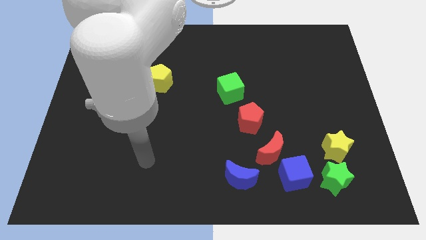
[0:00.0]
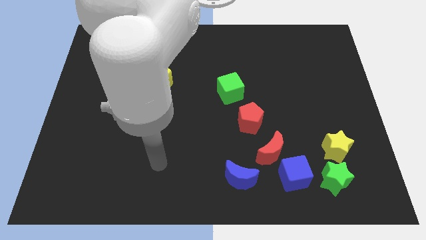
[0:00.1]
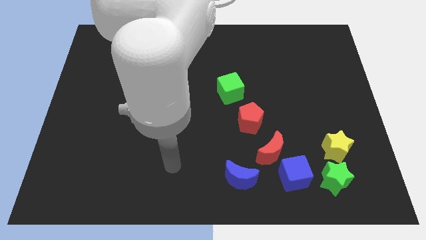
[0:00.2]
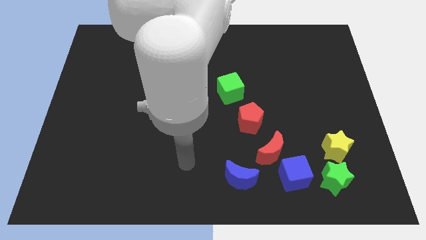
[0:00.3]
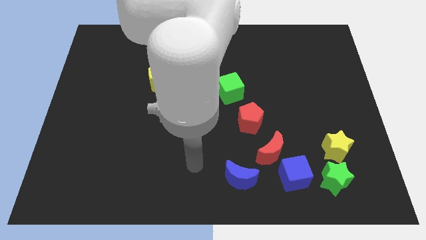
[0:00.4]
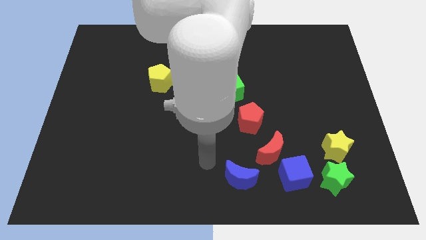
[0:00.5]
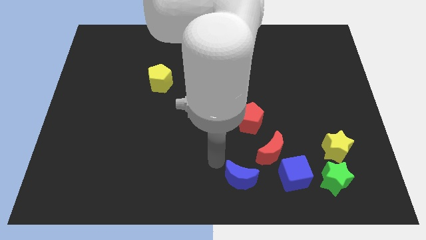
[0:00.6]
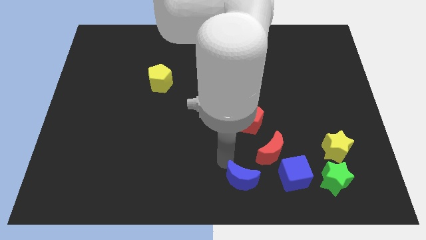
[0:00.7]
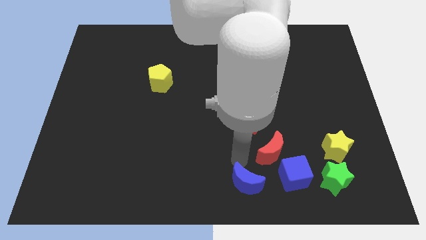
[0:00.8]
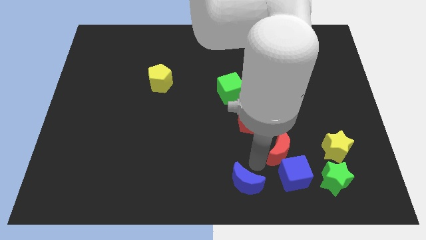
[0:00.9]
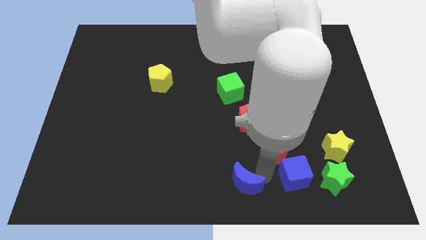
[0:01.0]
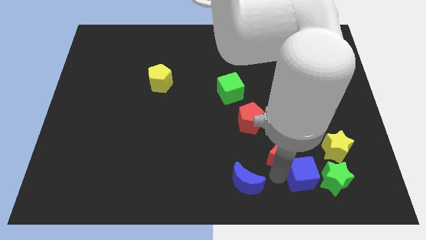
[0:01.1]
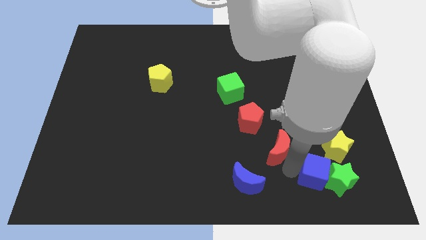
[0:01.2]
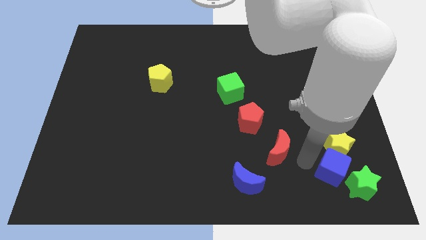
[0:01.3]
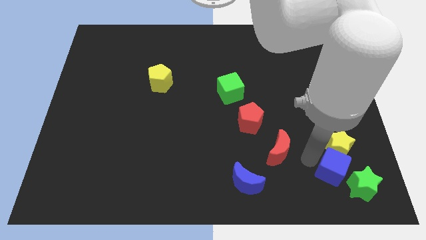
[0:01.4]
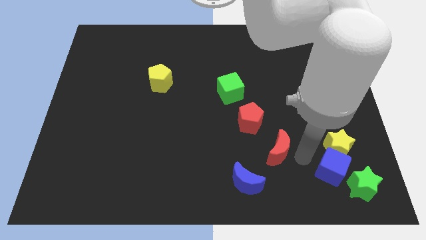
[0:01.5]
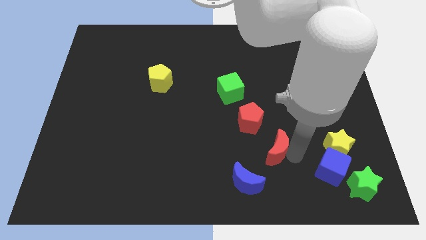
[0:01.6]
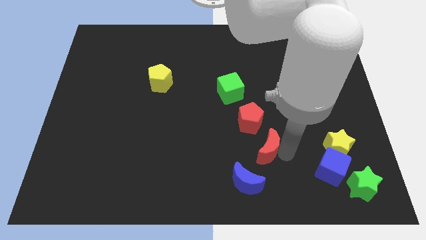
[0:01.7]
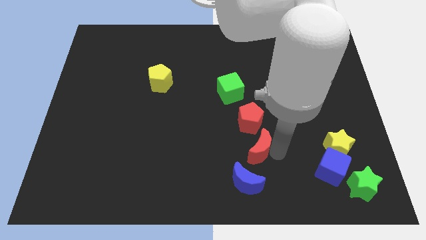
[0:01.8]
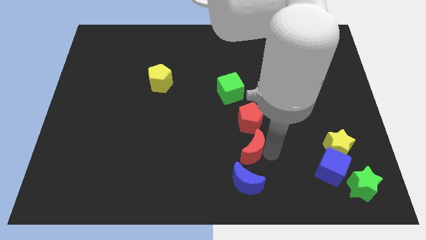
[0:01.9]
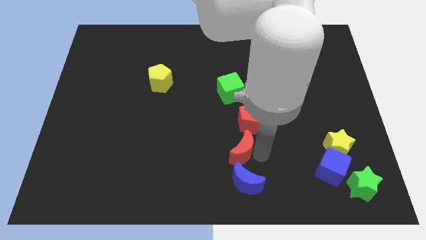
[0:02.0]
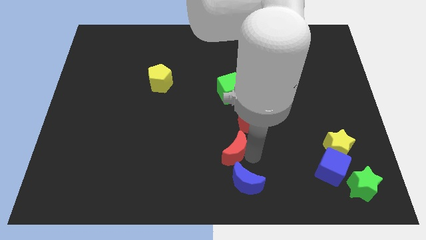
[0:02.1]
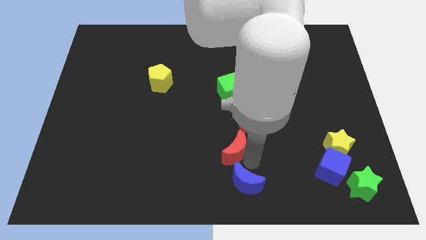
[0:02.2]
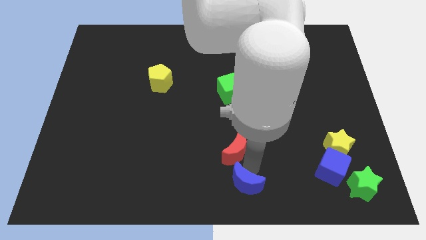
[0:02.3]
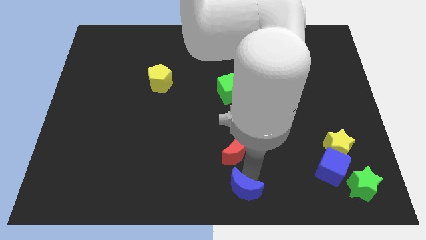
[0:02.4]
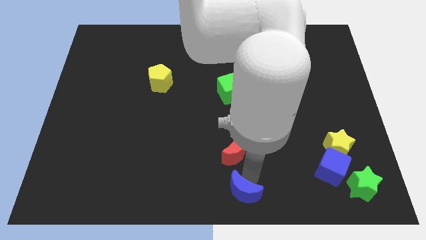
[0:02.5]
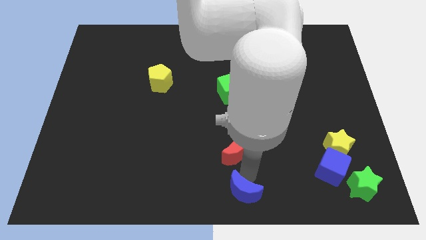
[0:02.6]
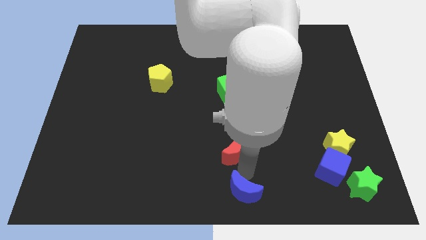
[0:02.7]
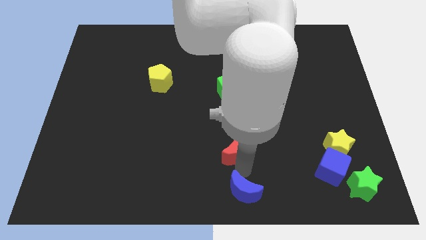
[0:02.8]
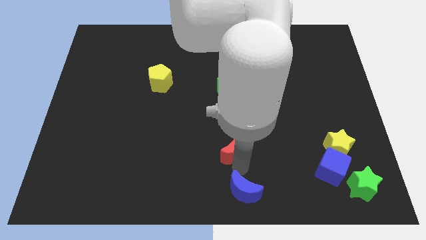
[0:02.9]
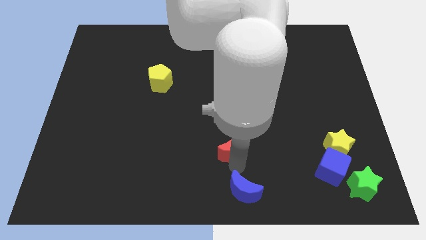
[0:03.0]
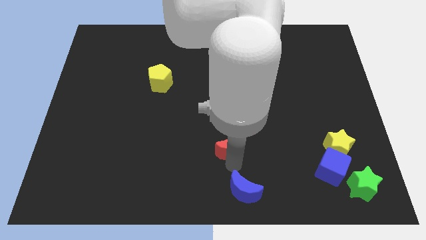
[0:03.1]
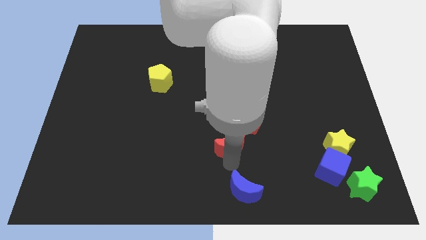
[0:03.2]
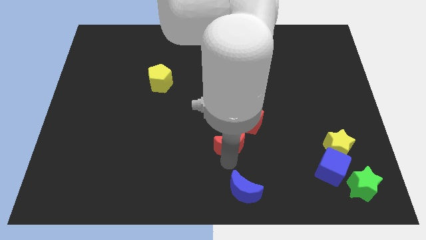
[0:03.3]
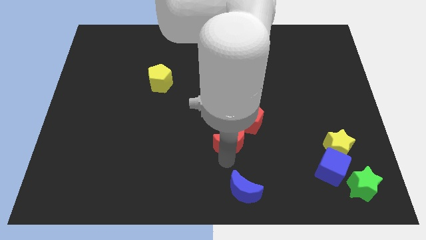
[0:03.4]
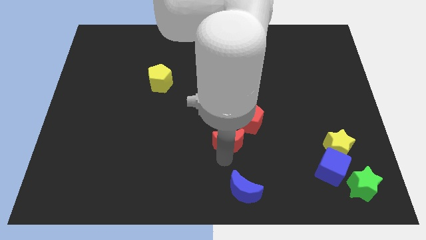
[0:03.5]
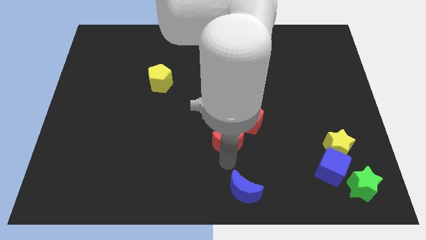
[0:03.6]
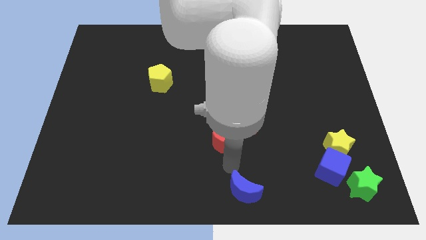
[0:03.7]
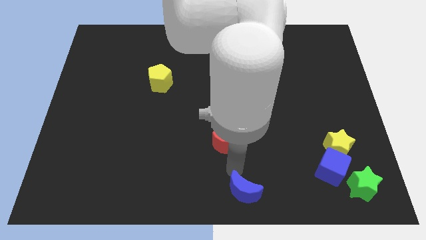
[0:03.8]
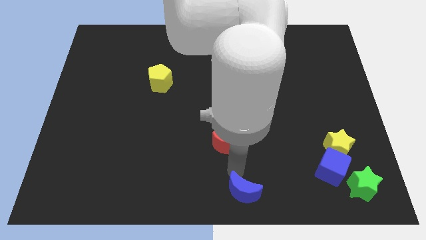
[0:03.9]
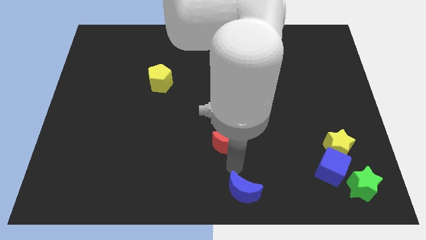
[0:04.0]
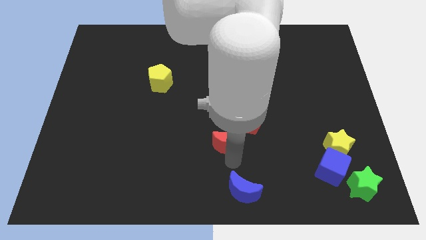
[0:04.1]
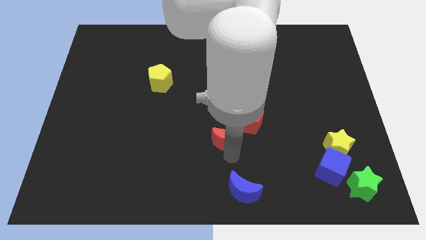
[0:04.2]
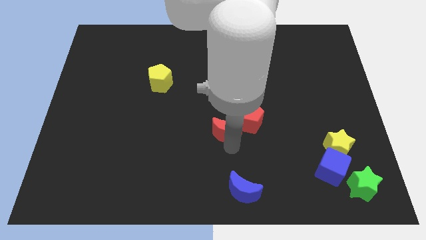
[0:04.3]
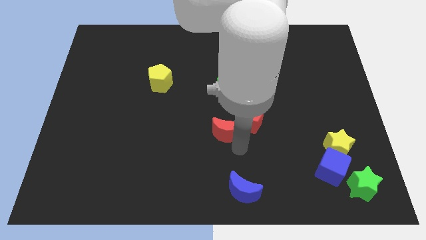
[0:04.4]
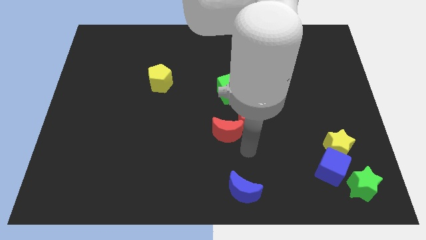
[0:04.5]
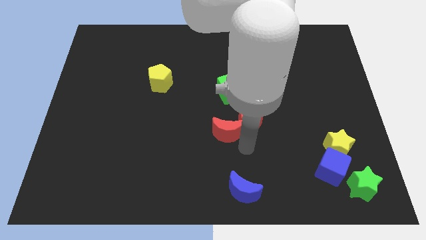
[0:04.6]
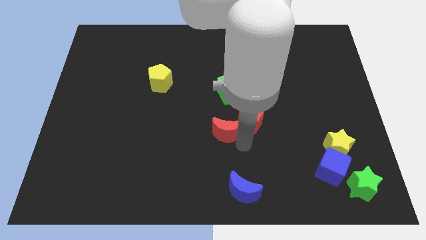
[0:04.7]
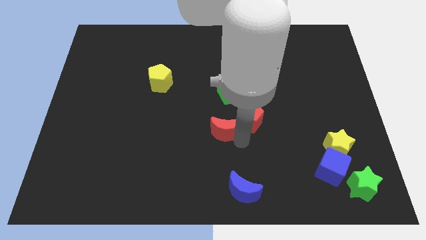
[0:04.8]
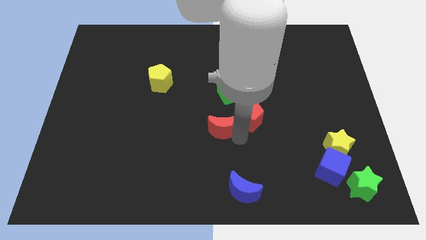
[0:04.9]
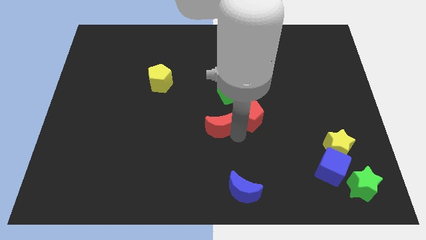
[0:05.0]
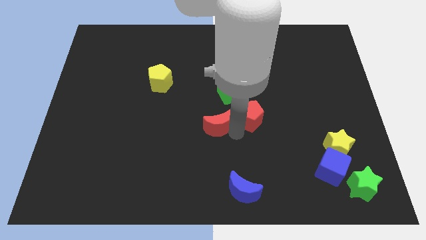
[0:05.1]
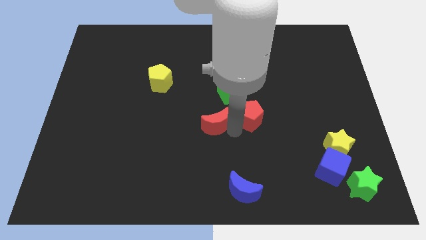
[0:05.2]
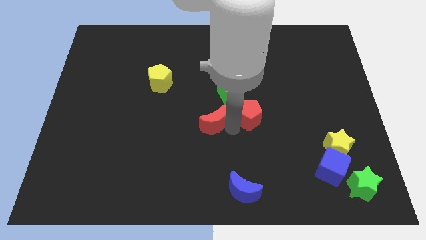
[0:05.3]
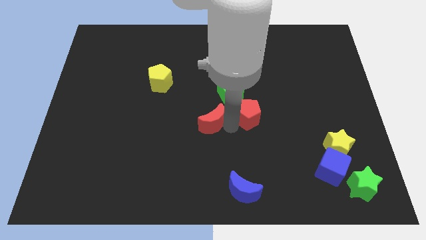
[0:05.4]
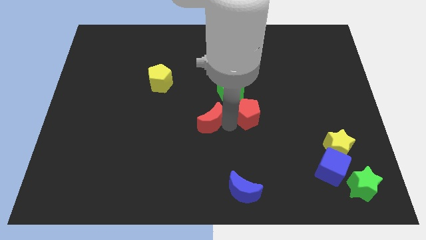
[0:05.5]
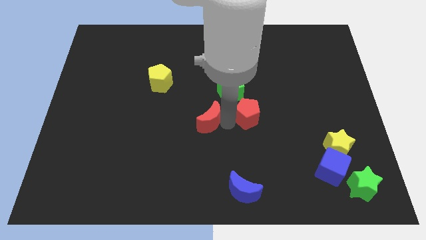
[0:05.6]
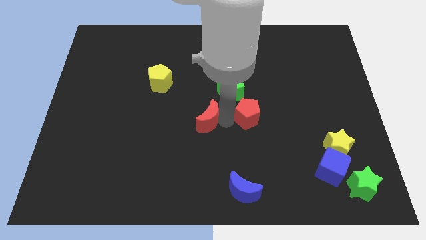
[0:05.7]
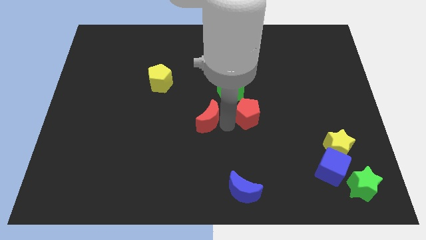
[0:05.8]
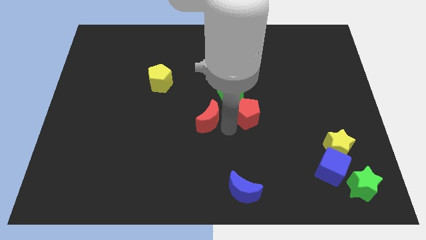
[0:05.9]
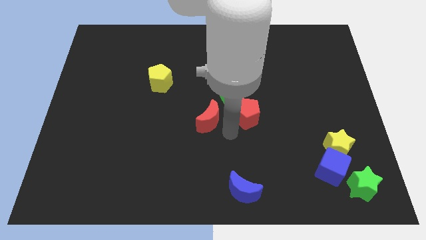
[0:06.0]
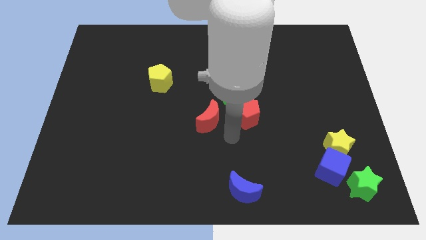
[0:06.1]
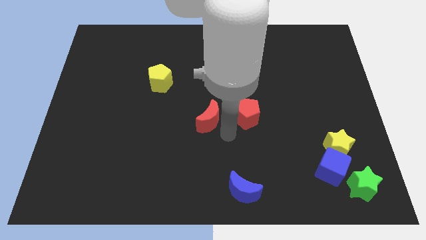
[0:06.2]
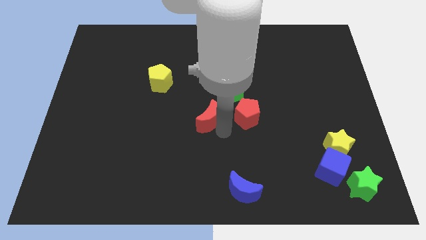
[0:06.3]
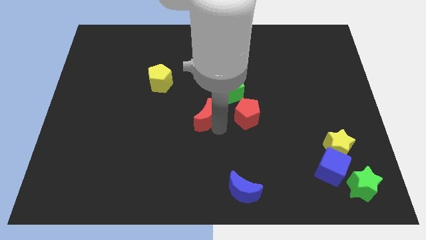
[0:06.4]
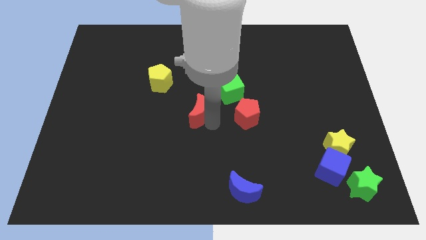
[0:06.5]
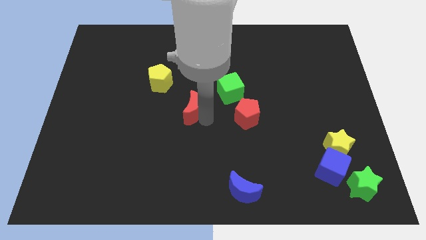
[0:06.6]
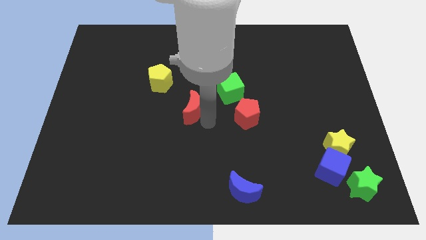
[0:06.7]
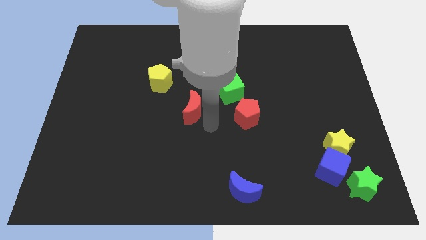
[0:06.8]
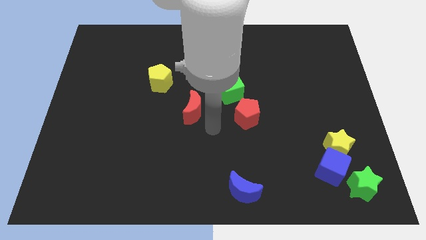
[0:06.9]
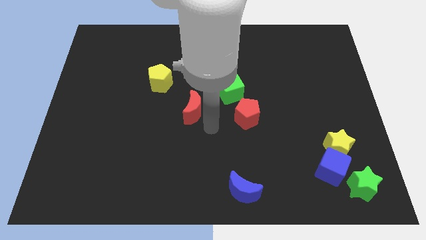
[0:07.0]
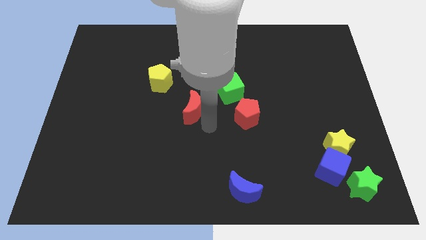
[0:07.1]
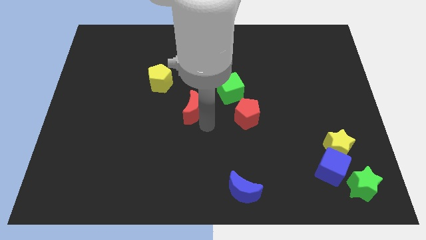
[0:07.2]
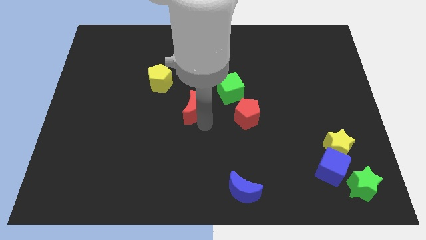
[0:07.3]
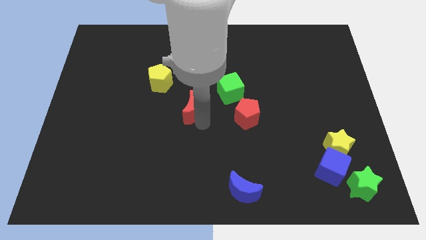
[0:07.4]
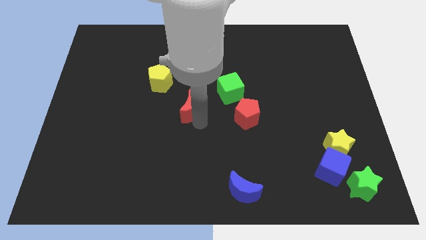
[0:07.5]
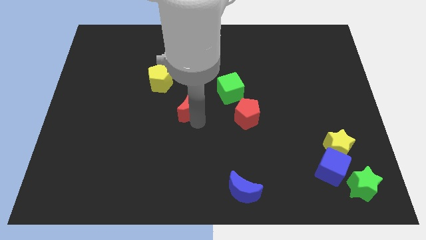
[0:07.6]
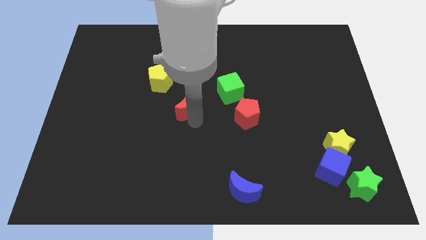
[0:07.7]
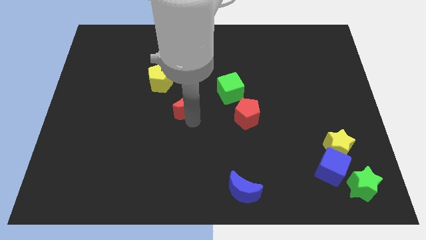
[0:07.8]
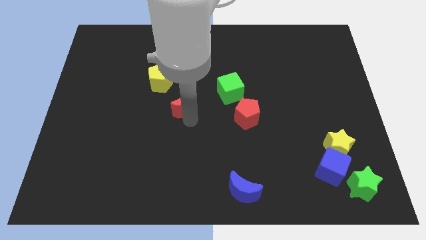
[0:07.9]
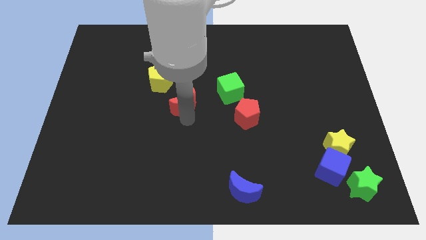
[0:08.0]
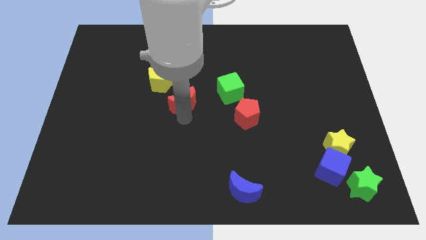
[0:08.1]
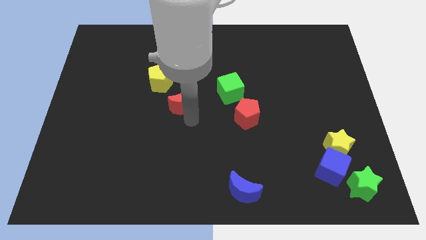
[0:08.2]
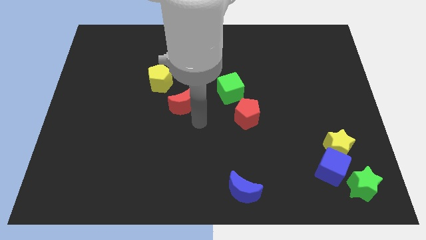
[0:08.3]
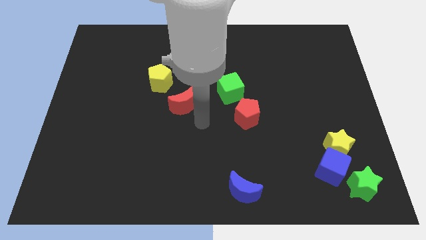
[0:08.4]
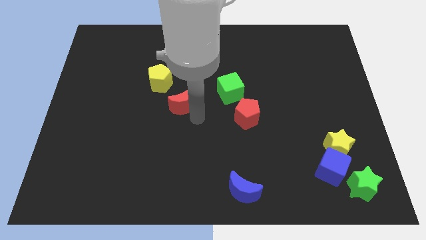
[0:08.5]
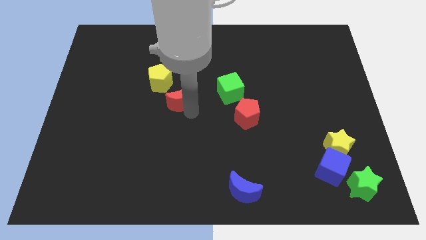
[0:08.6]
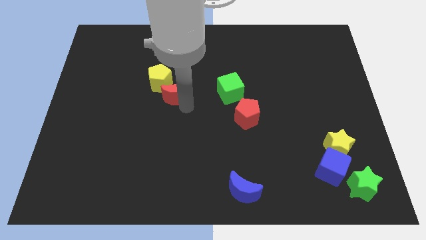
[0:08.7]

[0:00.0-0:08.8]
move the red moon towards the yellow pentagon
